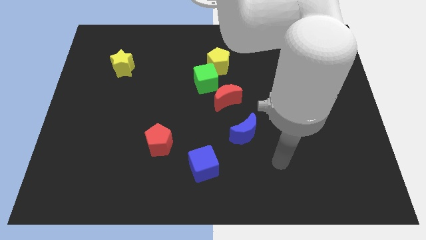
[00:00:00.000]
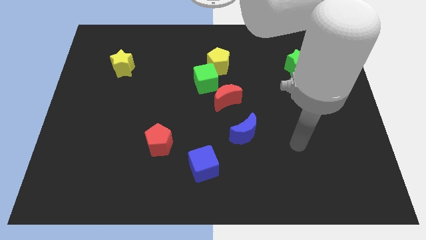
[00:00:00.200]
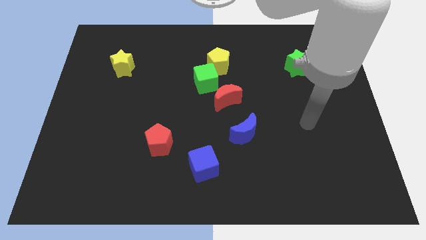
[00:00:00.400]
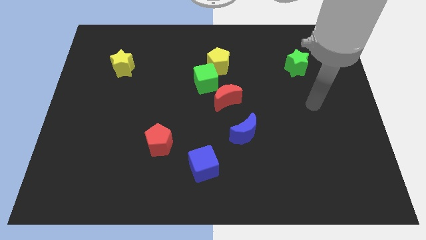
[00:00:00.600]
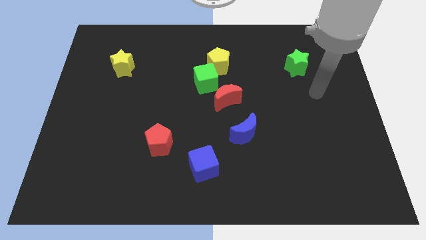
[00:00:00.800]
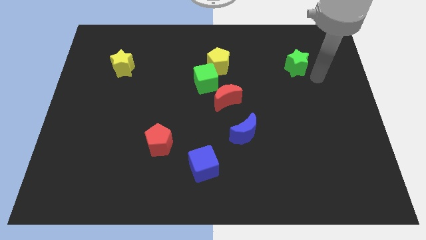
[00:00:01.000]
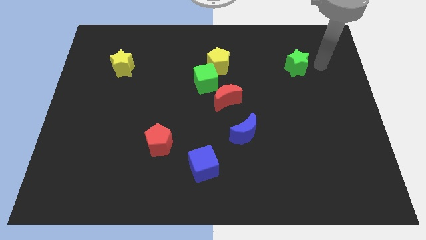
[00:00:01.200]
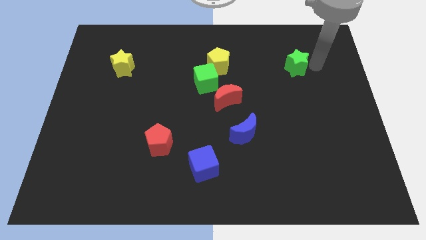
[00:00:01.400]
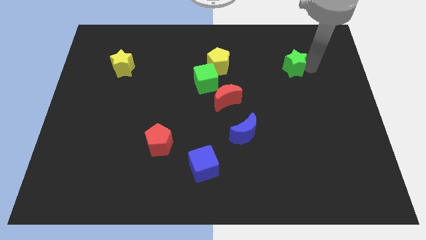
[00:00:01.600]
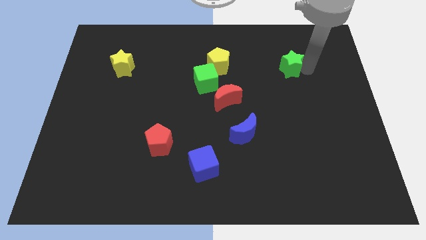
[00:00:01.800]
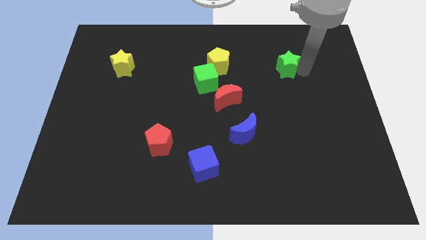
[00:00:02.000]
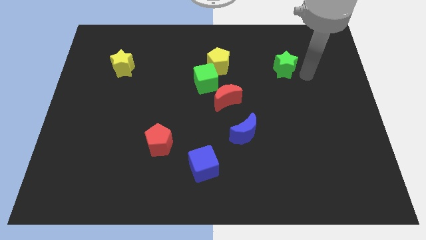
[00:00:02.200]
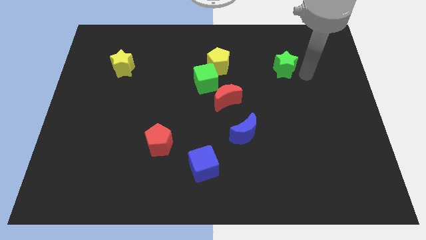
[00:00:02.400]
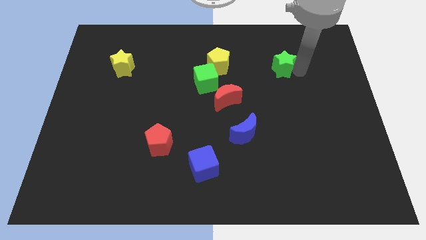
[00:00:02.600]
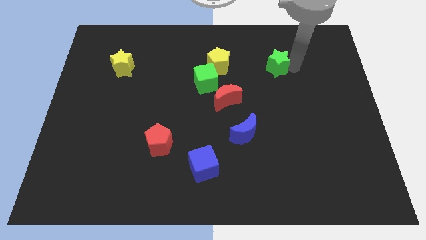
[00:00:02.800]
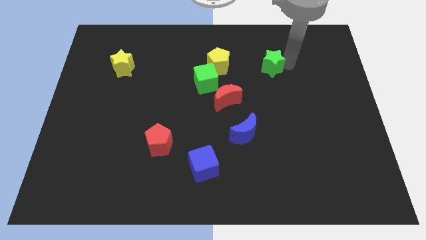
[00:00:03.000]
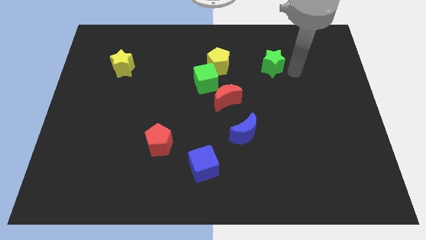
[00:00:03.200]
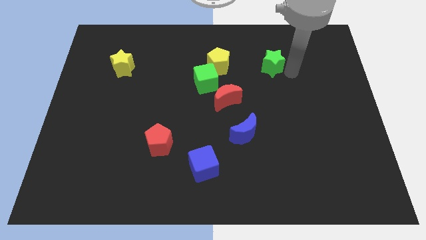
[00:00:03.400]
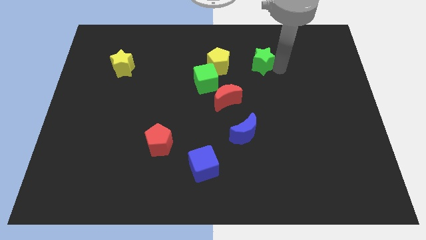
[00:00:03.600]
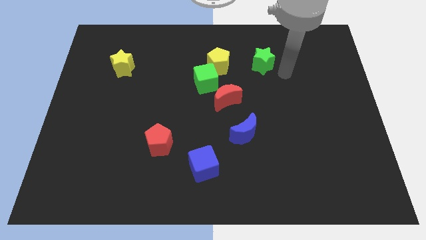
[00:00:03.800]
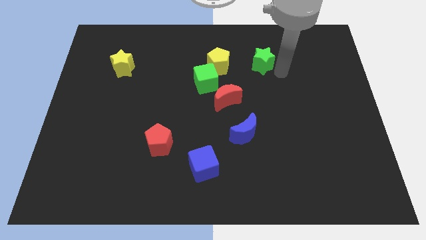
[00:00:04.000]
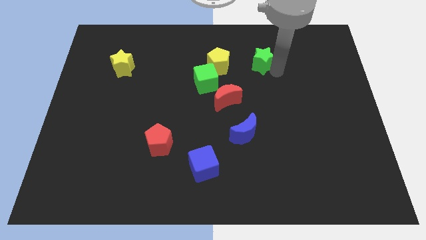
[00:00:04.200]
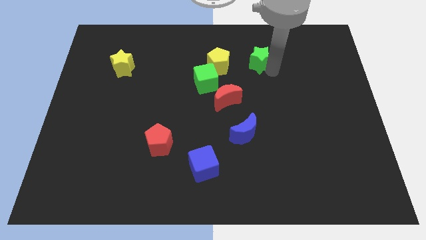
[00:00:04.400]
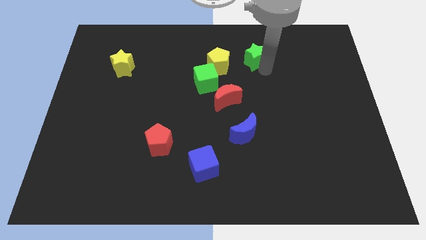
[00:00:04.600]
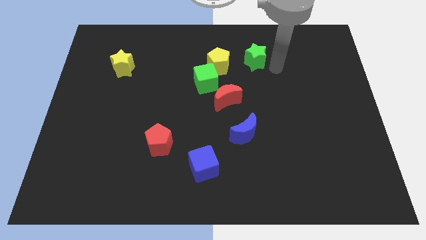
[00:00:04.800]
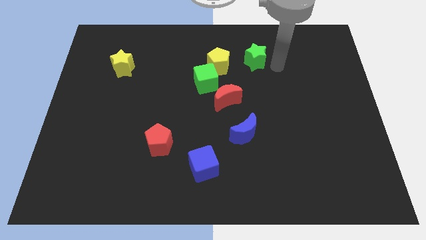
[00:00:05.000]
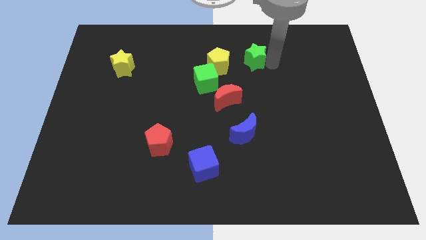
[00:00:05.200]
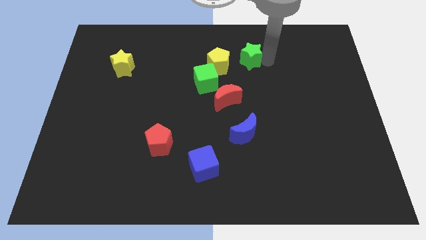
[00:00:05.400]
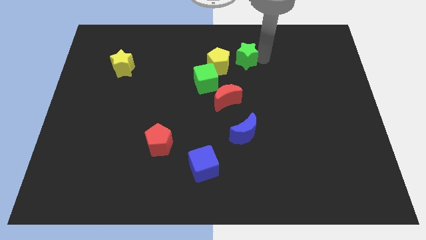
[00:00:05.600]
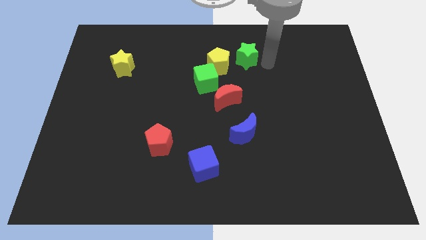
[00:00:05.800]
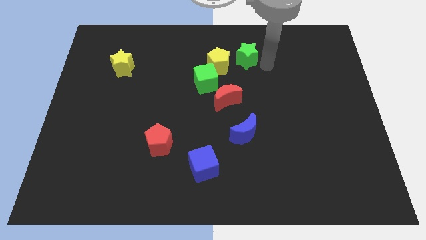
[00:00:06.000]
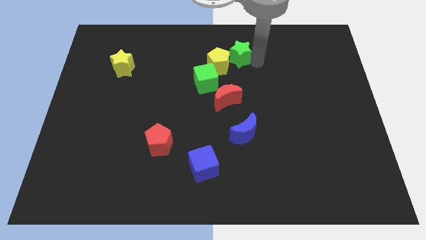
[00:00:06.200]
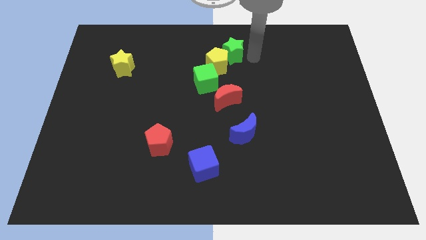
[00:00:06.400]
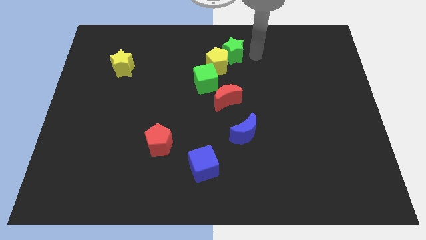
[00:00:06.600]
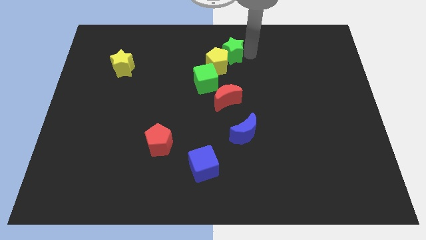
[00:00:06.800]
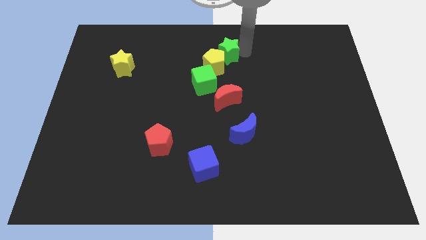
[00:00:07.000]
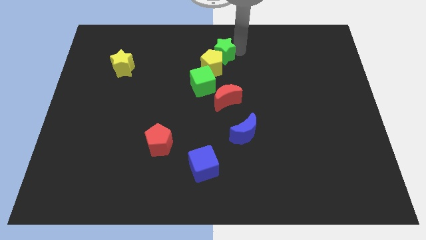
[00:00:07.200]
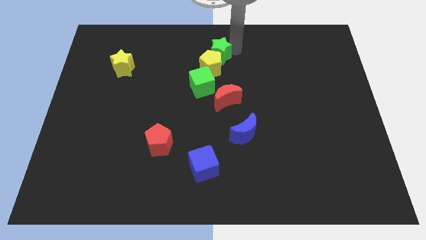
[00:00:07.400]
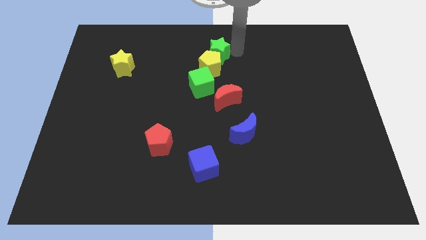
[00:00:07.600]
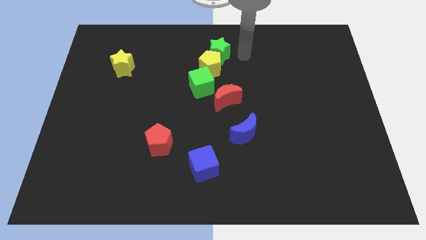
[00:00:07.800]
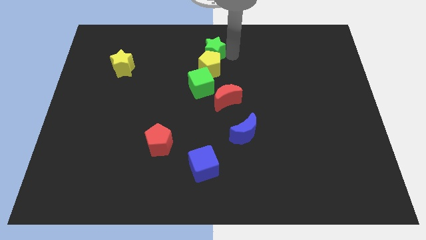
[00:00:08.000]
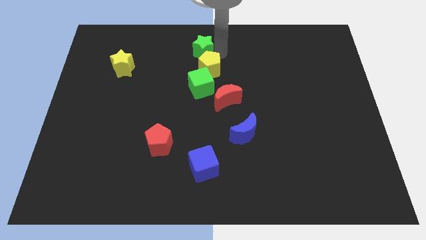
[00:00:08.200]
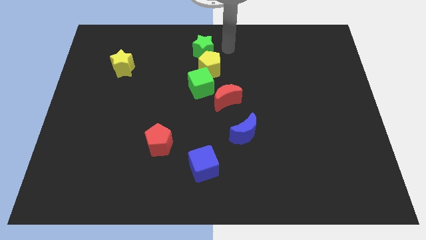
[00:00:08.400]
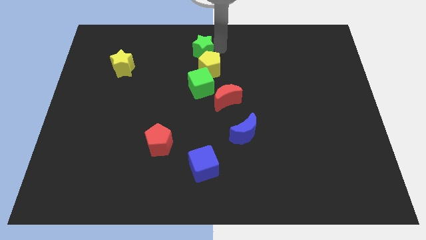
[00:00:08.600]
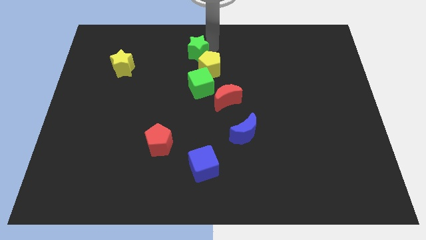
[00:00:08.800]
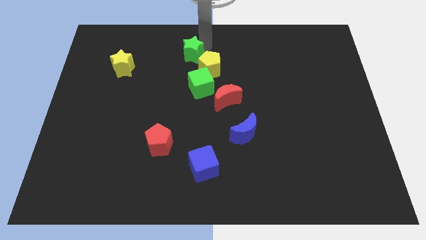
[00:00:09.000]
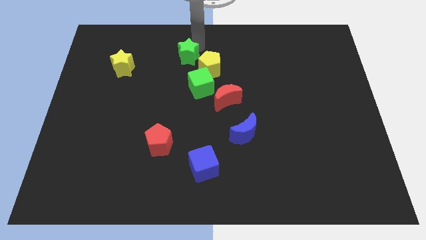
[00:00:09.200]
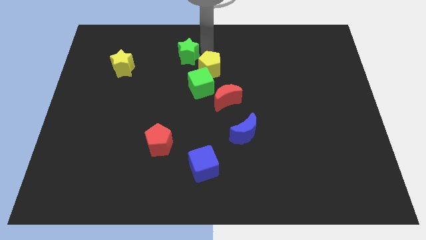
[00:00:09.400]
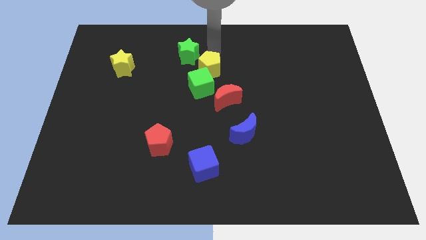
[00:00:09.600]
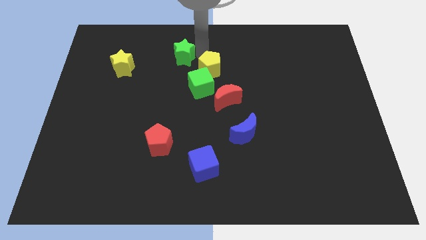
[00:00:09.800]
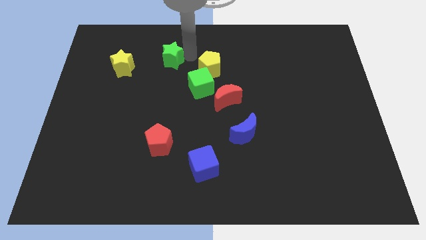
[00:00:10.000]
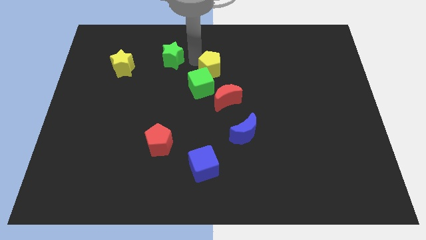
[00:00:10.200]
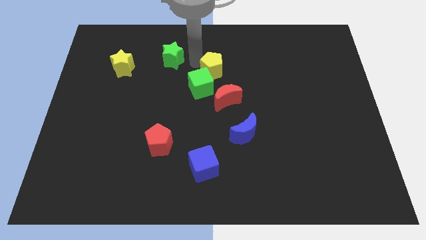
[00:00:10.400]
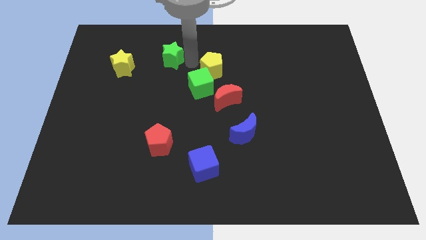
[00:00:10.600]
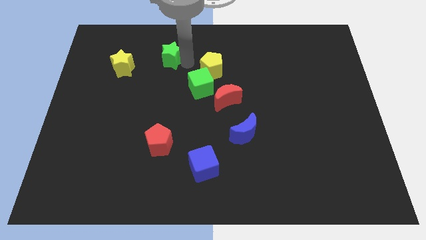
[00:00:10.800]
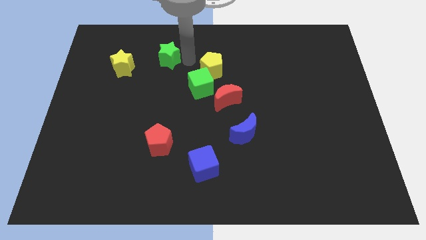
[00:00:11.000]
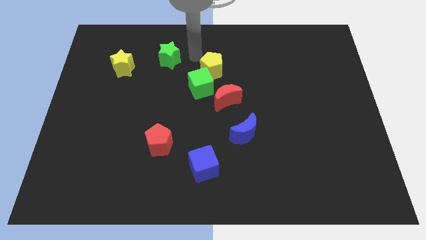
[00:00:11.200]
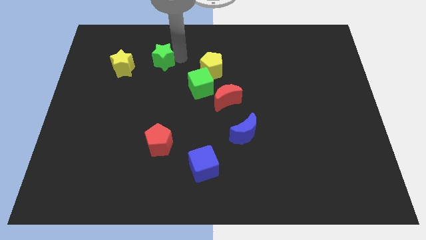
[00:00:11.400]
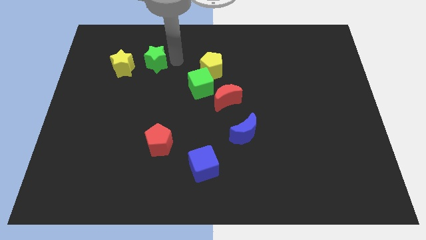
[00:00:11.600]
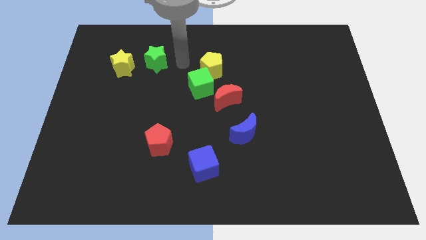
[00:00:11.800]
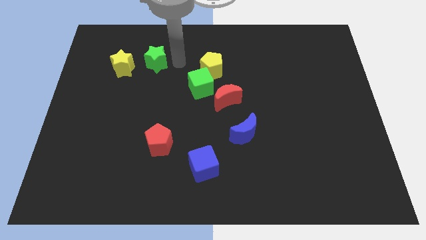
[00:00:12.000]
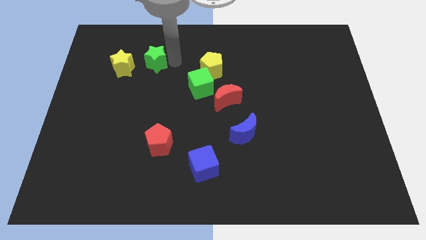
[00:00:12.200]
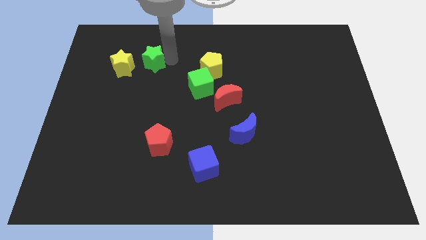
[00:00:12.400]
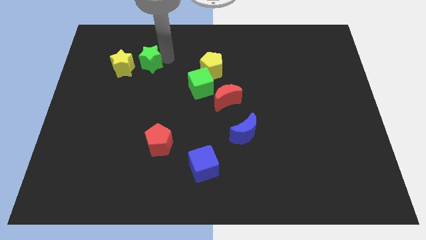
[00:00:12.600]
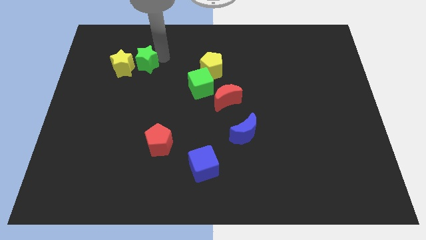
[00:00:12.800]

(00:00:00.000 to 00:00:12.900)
put the green star to the yellow star
